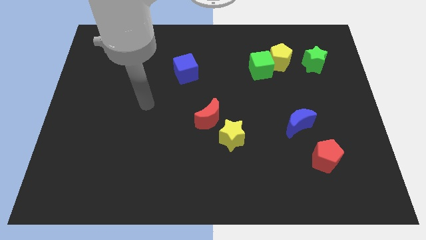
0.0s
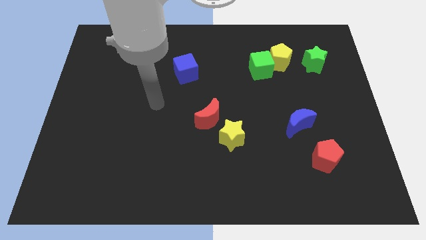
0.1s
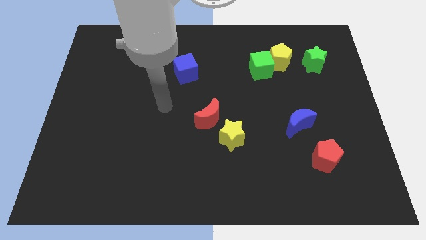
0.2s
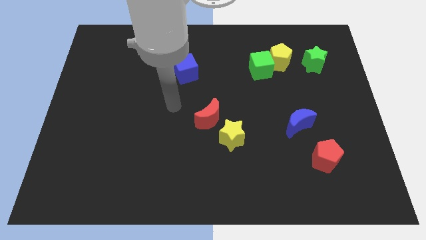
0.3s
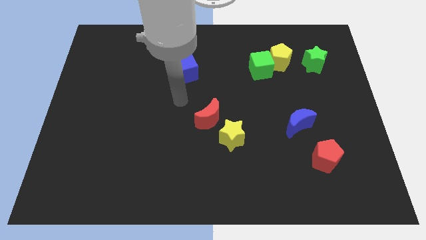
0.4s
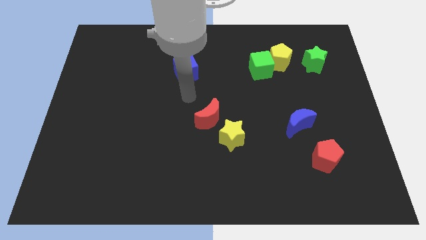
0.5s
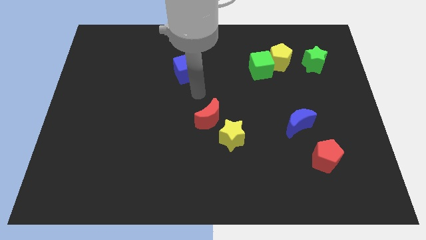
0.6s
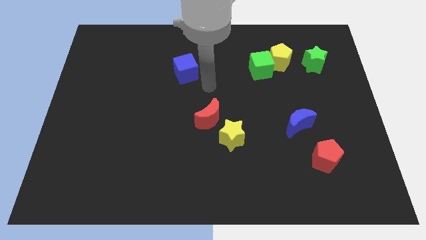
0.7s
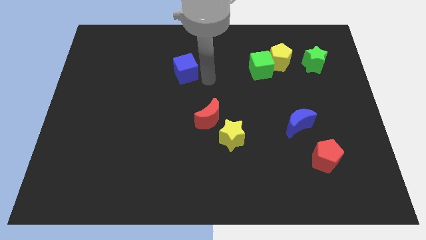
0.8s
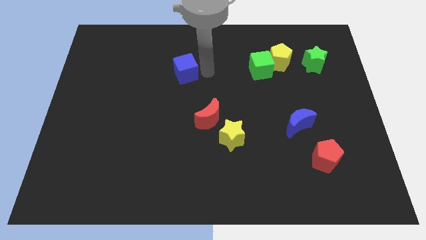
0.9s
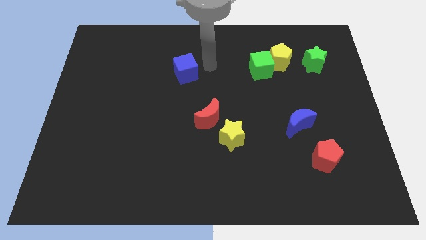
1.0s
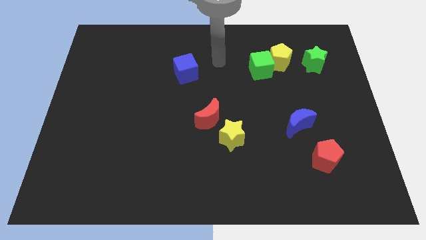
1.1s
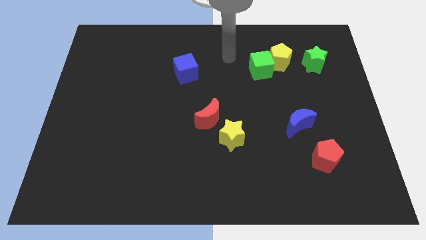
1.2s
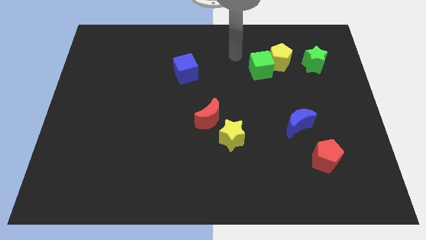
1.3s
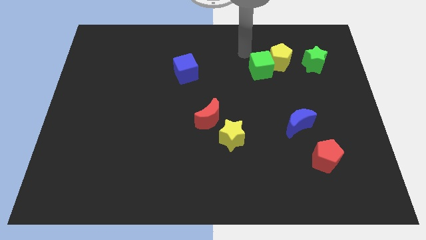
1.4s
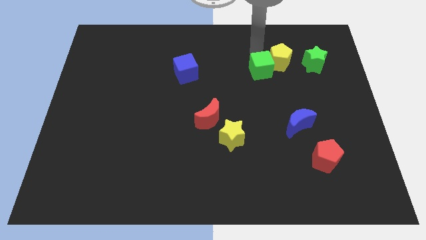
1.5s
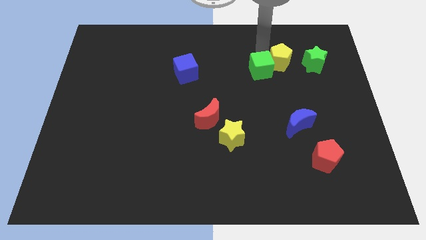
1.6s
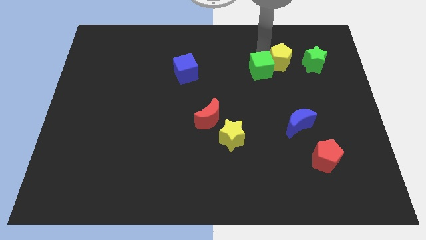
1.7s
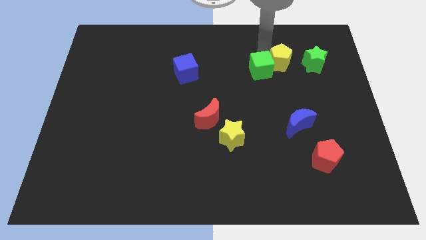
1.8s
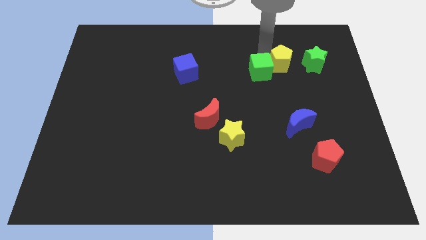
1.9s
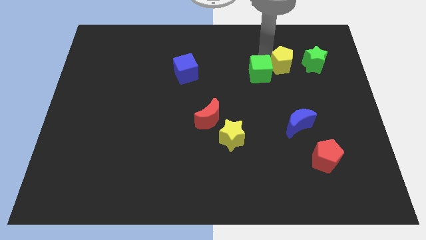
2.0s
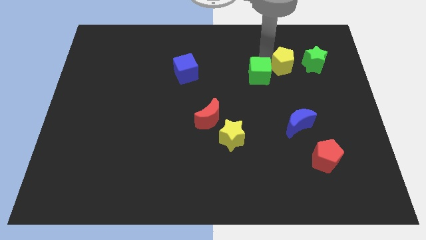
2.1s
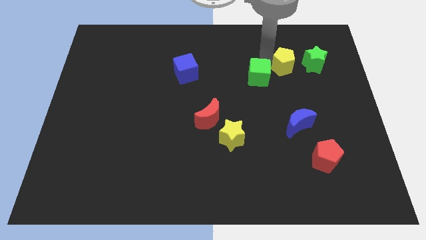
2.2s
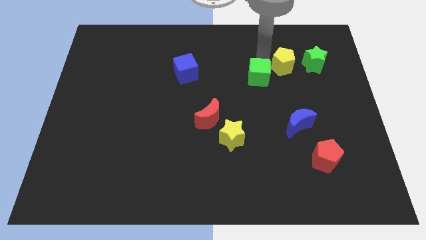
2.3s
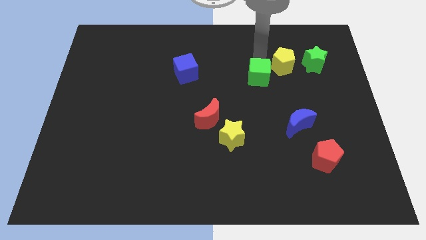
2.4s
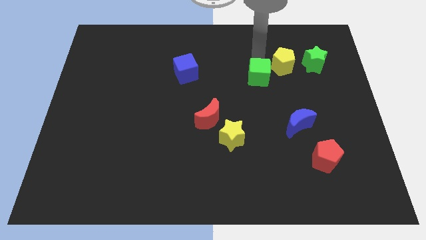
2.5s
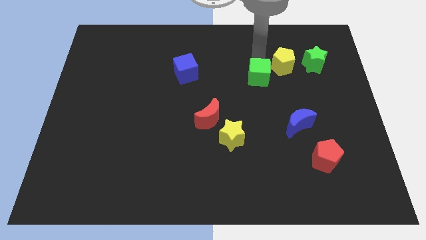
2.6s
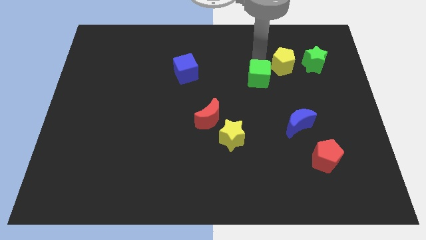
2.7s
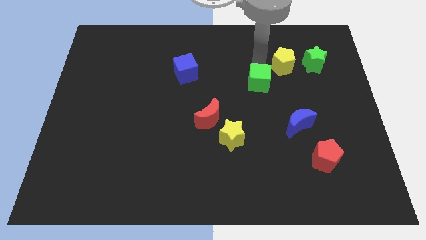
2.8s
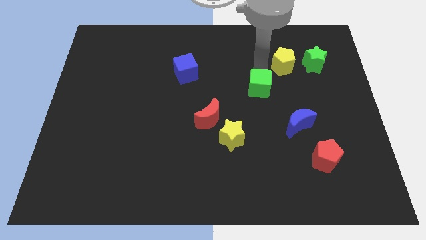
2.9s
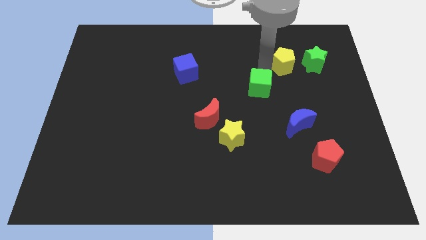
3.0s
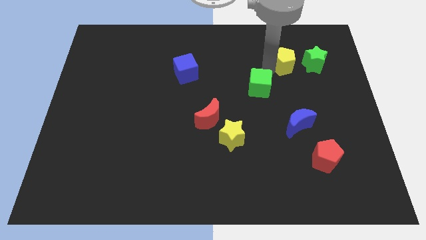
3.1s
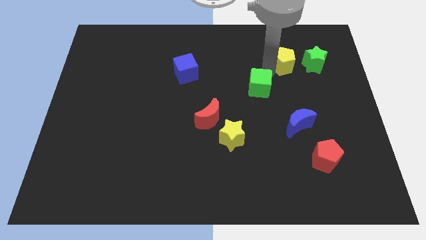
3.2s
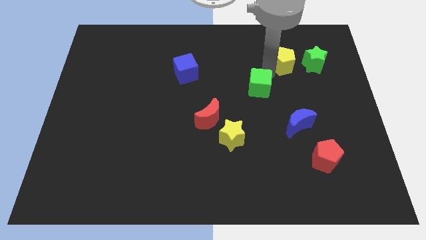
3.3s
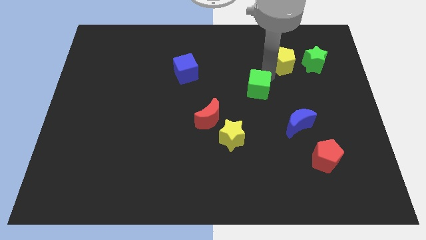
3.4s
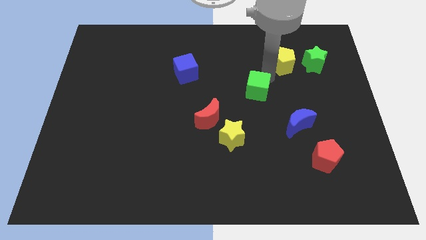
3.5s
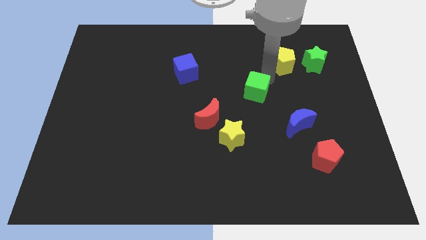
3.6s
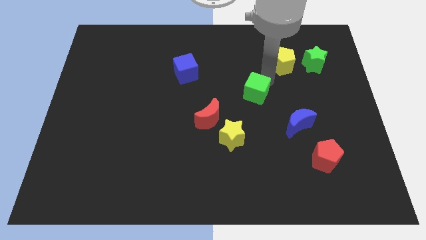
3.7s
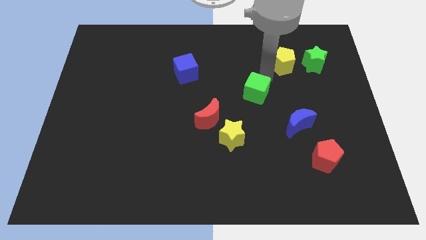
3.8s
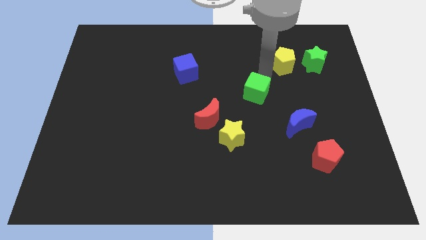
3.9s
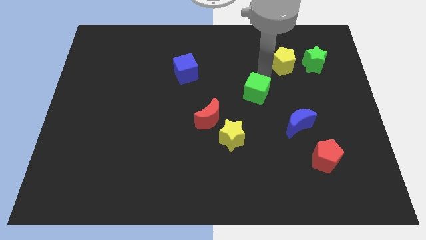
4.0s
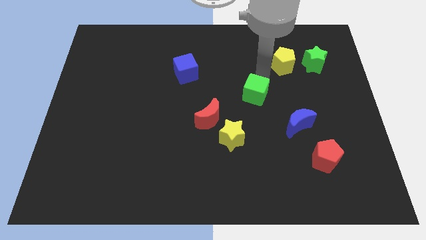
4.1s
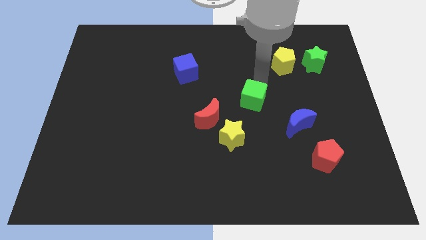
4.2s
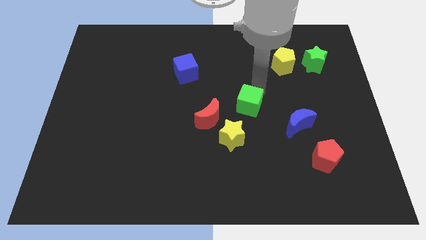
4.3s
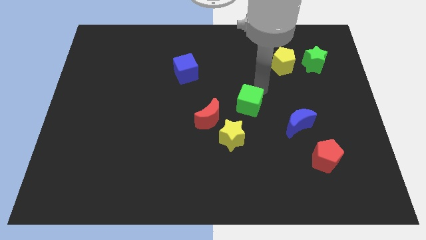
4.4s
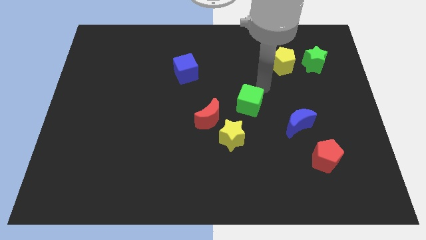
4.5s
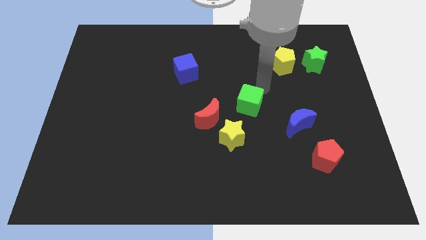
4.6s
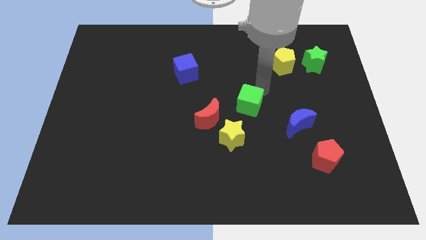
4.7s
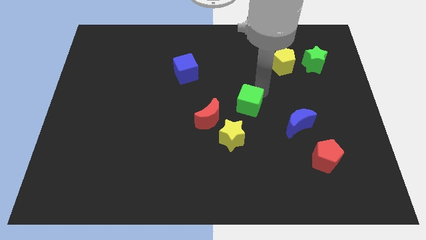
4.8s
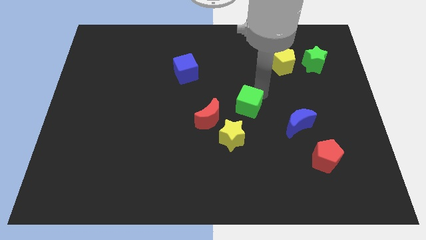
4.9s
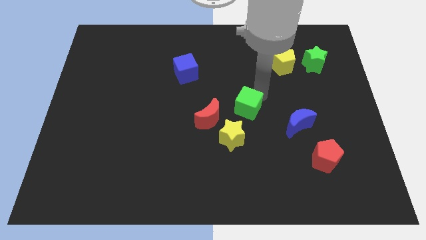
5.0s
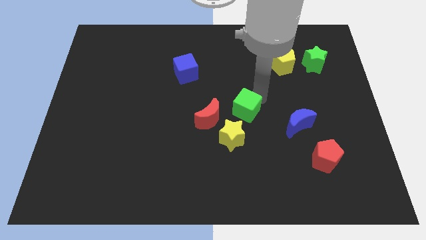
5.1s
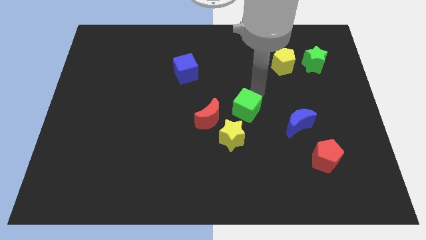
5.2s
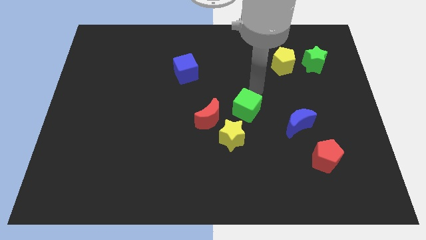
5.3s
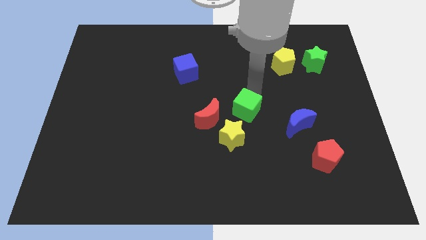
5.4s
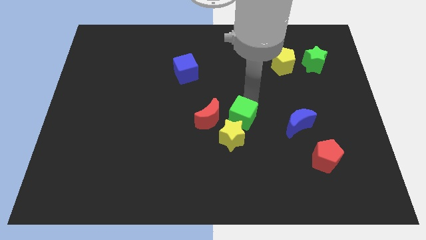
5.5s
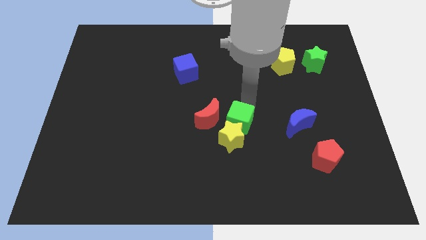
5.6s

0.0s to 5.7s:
push the green cube towards the yellow star

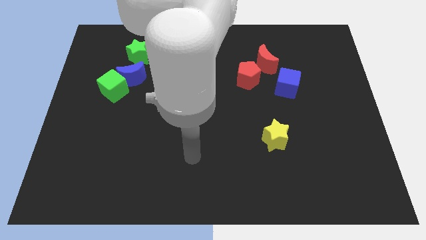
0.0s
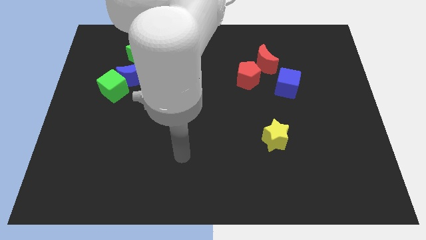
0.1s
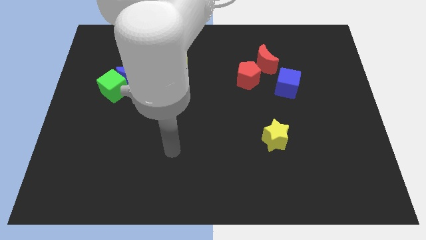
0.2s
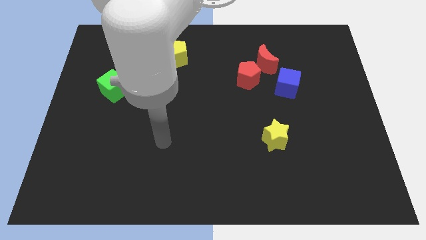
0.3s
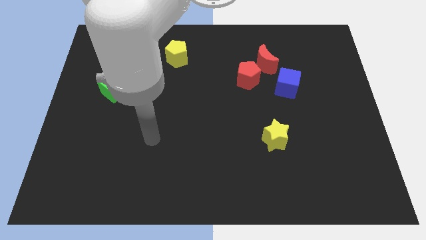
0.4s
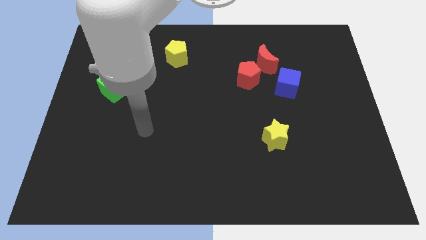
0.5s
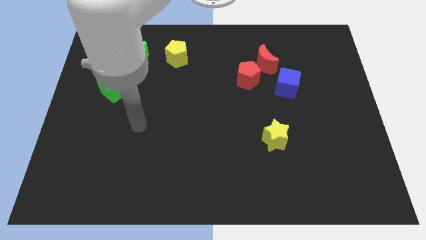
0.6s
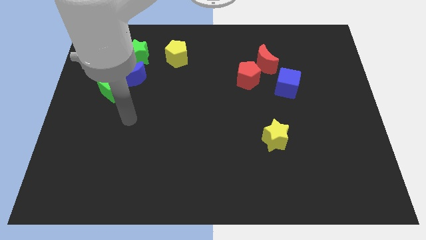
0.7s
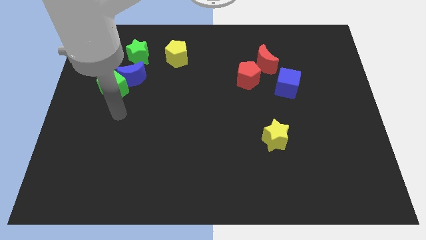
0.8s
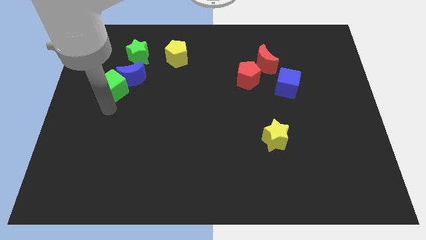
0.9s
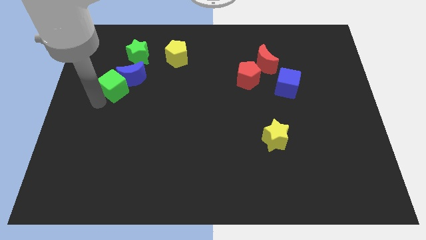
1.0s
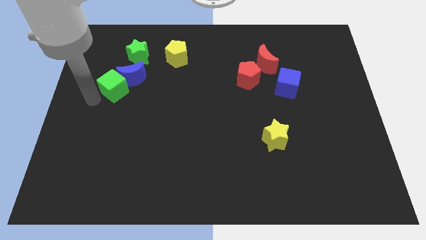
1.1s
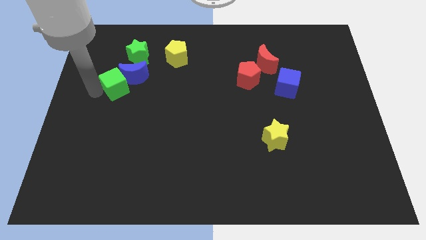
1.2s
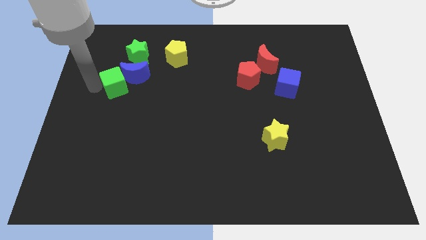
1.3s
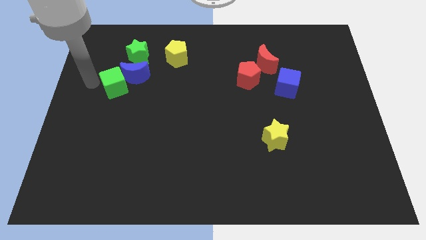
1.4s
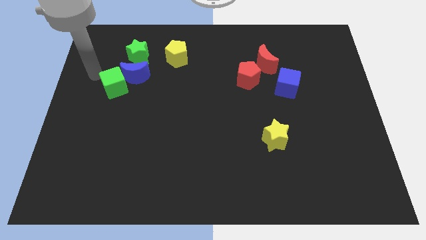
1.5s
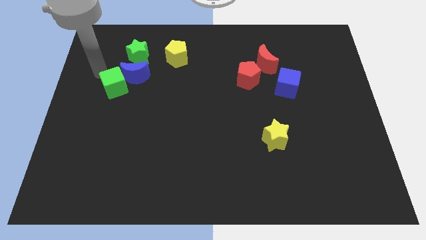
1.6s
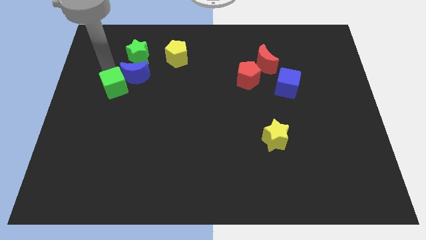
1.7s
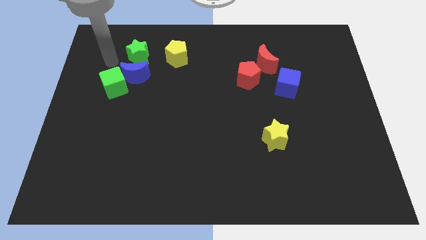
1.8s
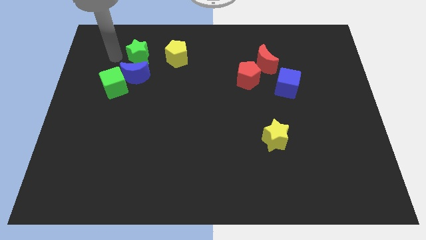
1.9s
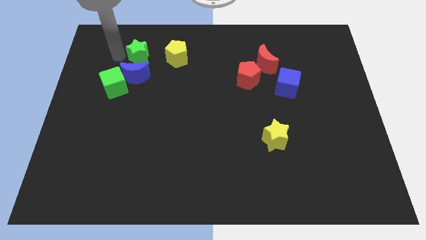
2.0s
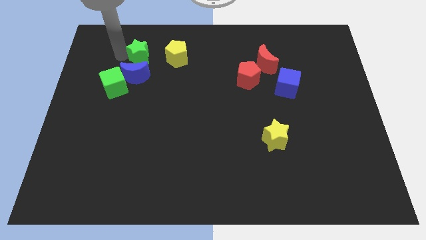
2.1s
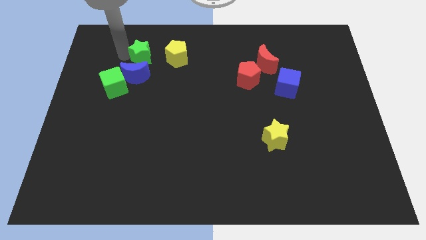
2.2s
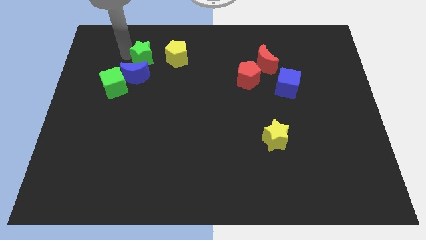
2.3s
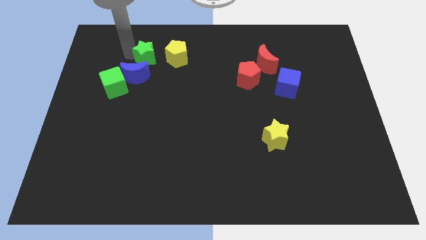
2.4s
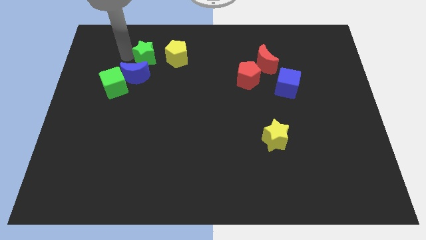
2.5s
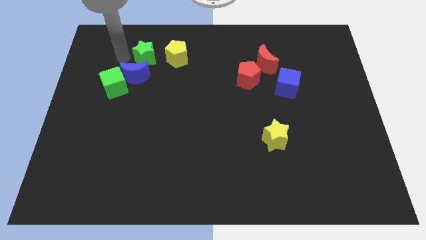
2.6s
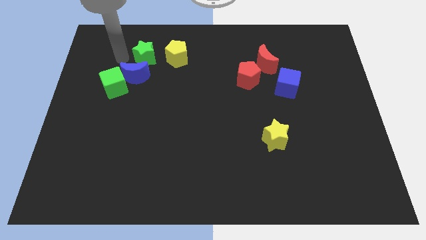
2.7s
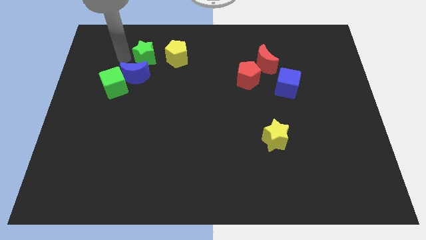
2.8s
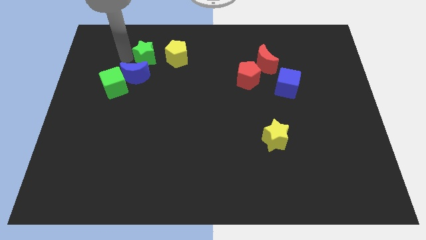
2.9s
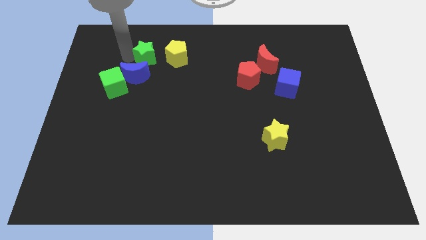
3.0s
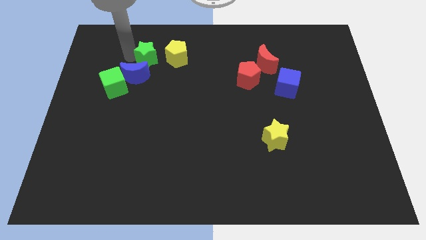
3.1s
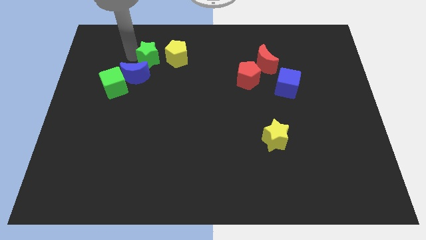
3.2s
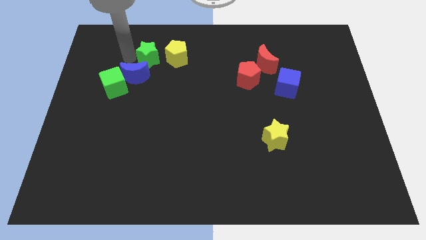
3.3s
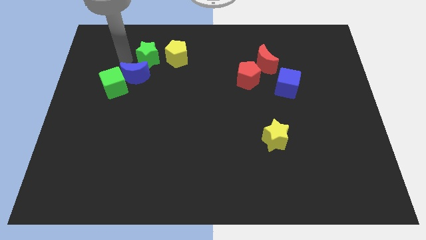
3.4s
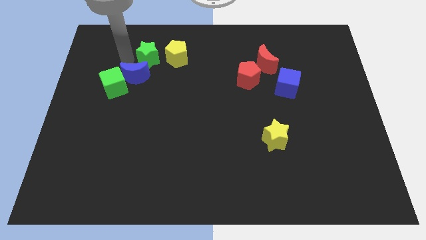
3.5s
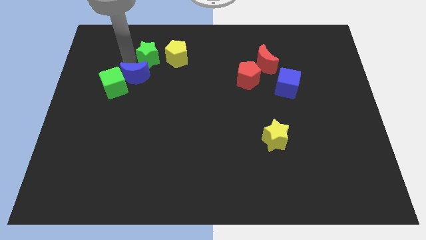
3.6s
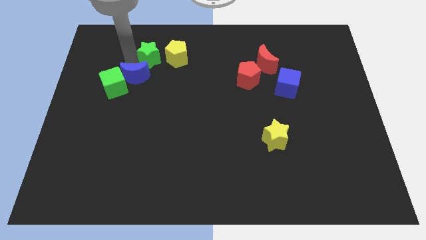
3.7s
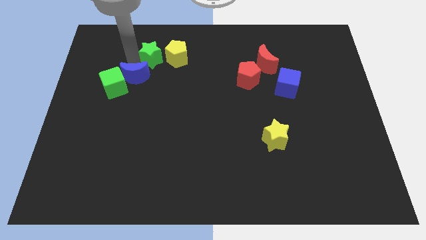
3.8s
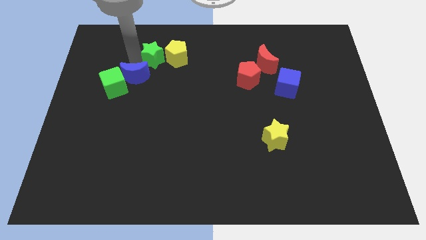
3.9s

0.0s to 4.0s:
put the green star close to the yellow pentagon
